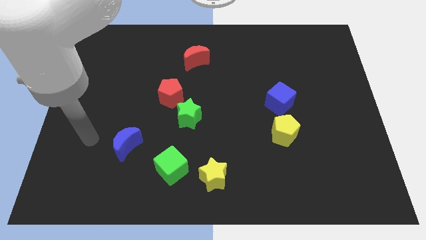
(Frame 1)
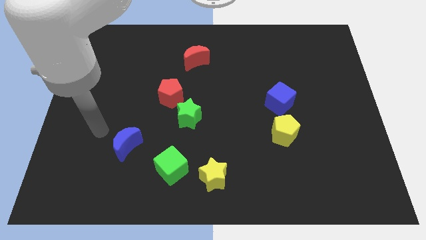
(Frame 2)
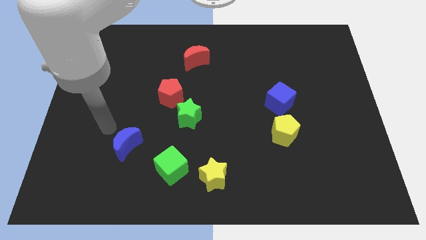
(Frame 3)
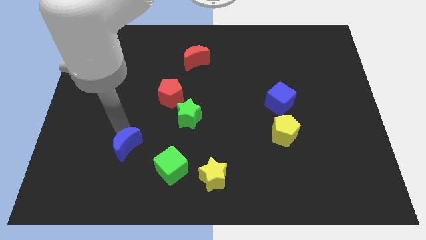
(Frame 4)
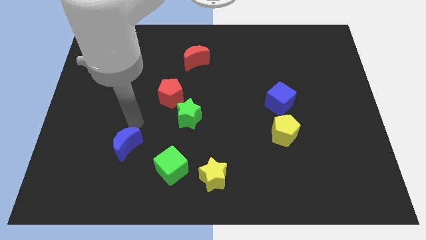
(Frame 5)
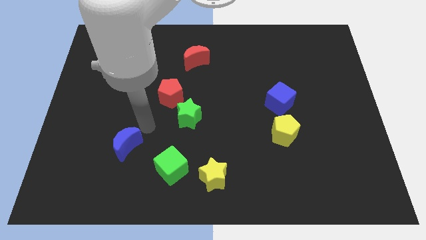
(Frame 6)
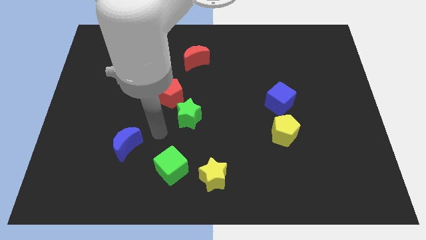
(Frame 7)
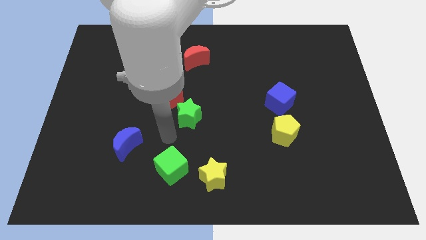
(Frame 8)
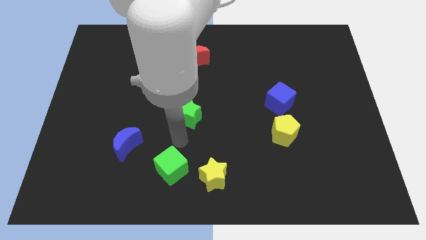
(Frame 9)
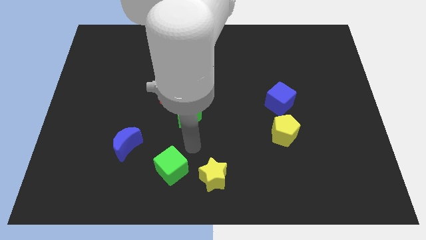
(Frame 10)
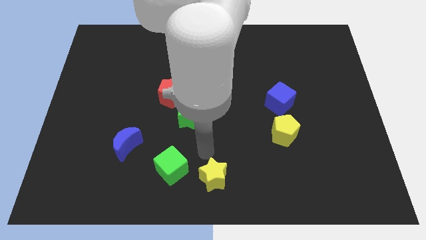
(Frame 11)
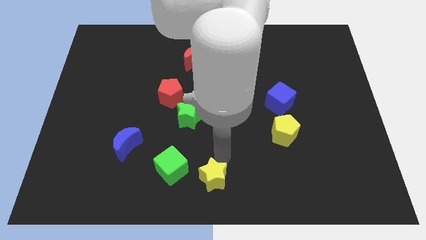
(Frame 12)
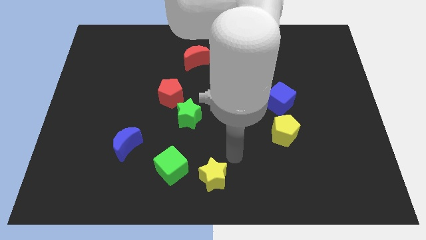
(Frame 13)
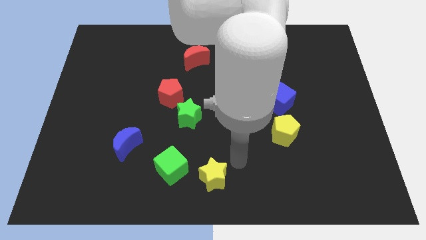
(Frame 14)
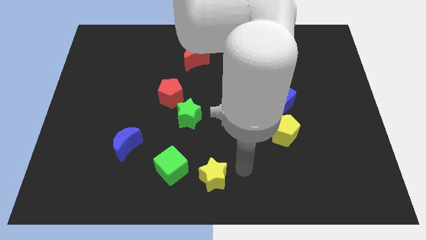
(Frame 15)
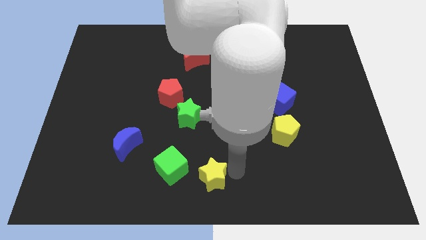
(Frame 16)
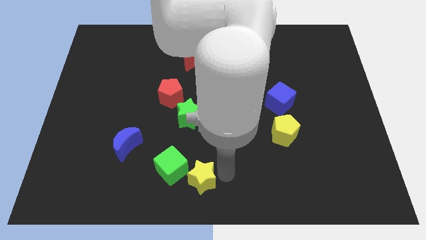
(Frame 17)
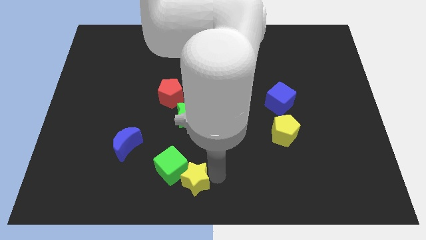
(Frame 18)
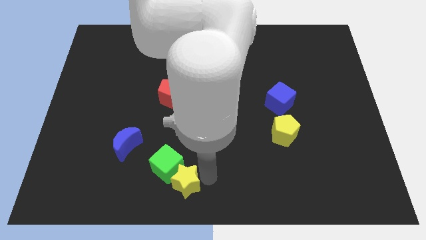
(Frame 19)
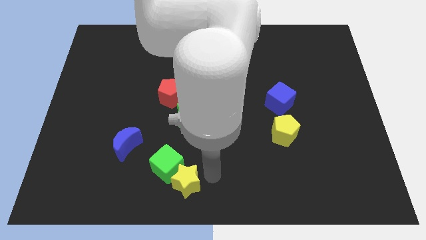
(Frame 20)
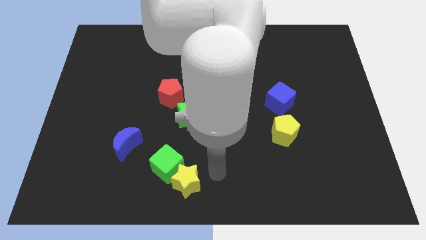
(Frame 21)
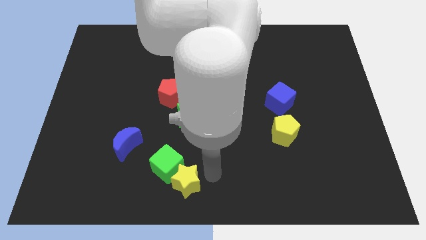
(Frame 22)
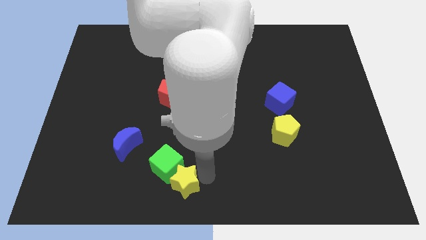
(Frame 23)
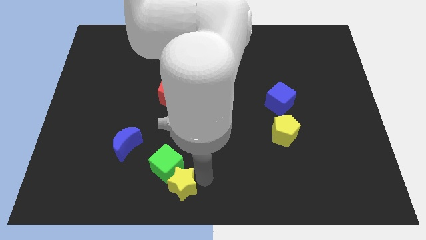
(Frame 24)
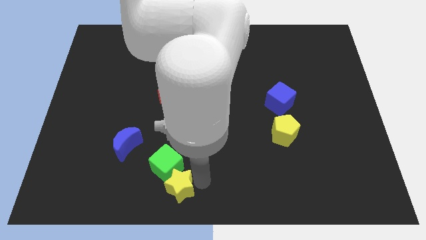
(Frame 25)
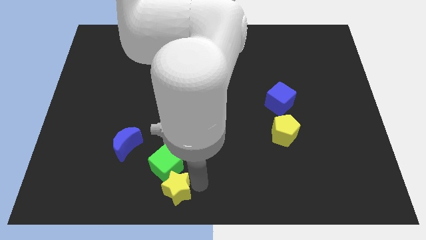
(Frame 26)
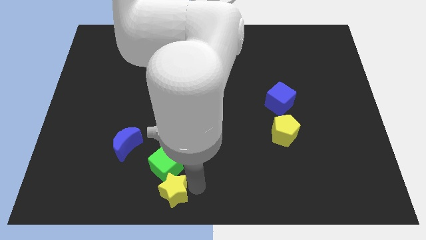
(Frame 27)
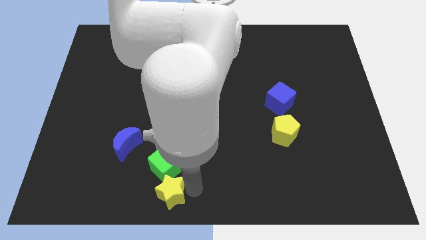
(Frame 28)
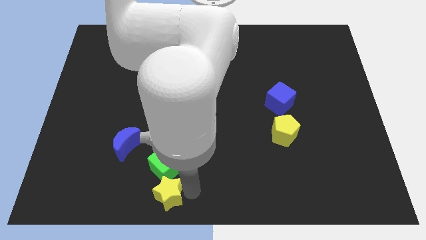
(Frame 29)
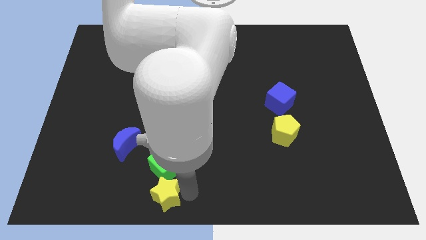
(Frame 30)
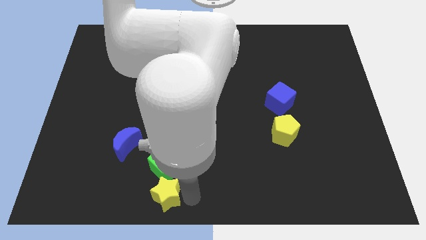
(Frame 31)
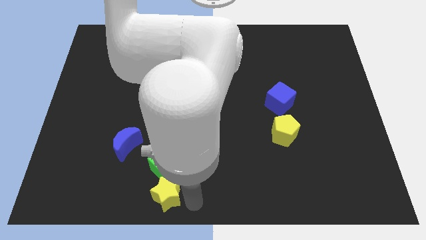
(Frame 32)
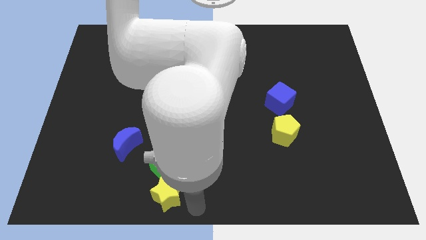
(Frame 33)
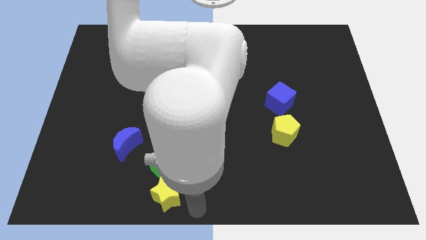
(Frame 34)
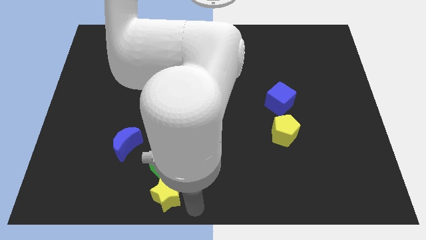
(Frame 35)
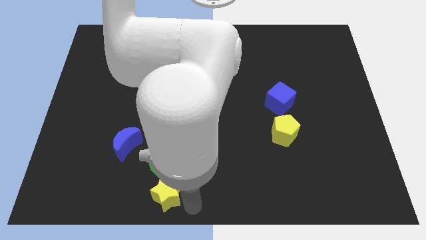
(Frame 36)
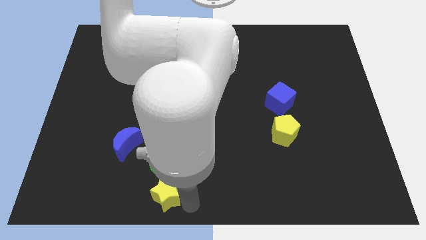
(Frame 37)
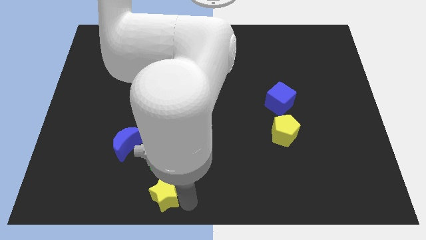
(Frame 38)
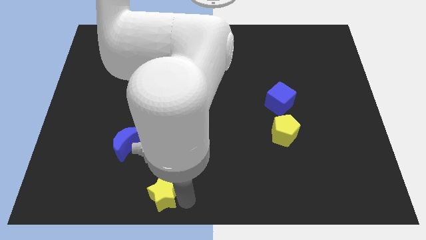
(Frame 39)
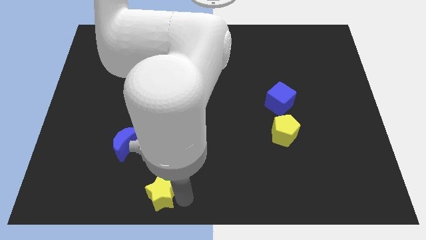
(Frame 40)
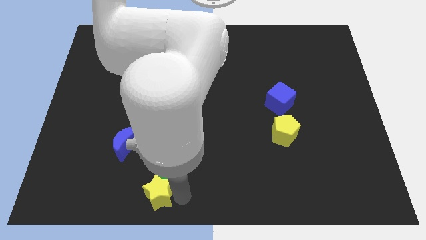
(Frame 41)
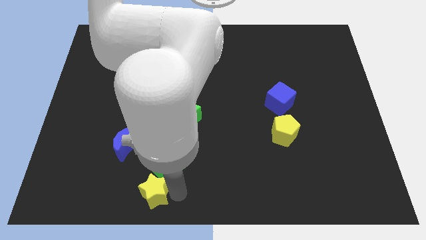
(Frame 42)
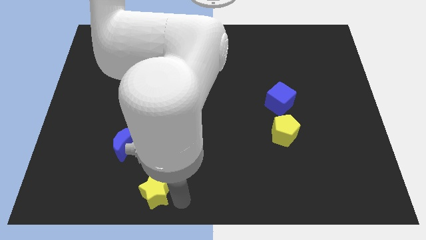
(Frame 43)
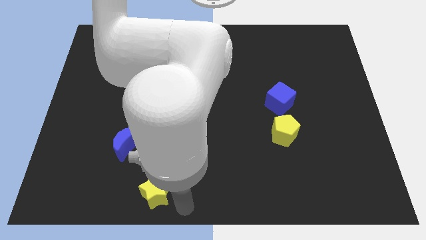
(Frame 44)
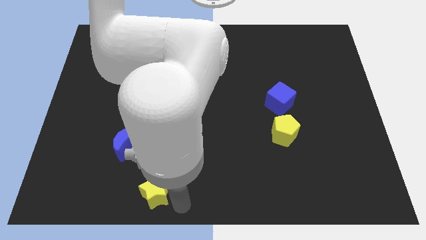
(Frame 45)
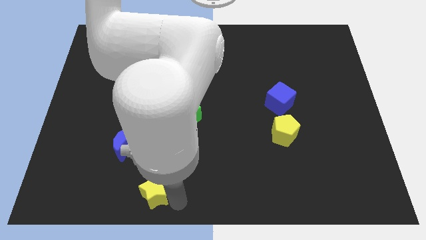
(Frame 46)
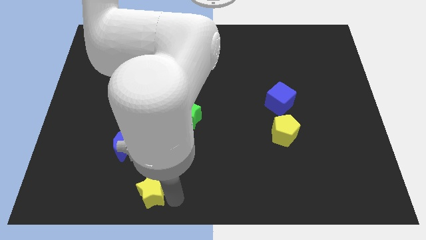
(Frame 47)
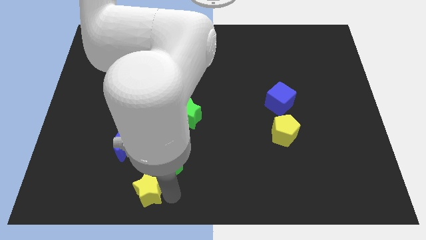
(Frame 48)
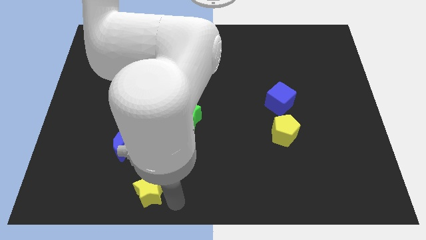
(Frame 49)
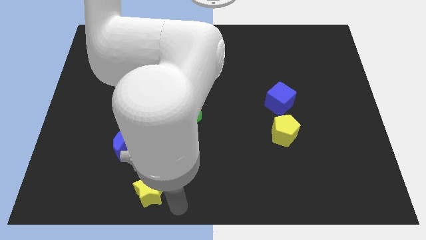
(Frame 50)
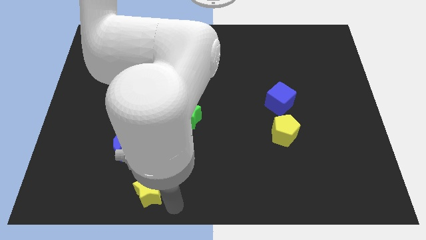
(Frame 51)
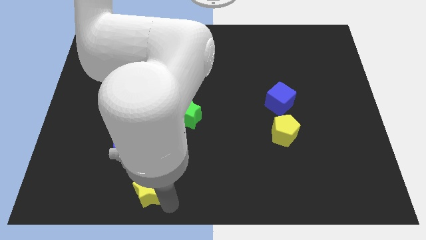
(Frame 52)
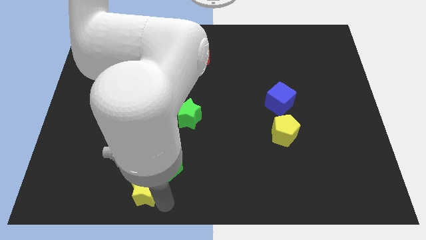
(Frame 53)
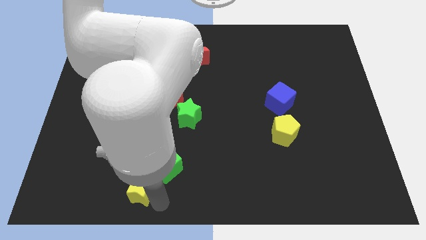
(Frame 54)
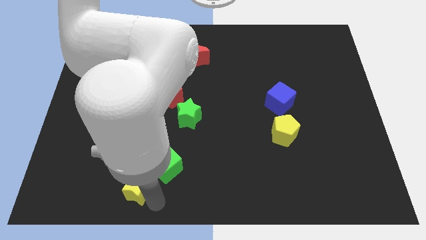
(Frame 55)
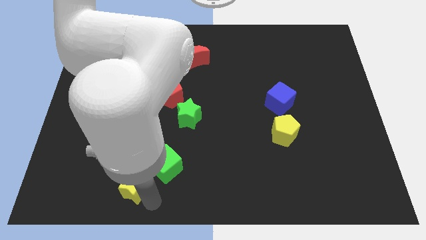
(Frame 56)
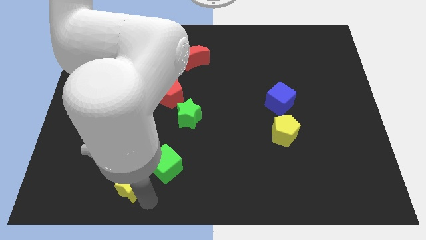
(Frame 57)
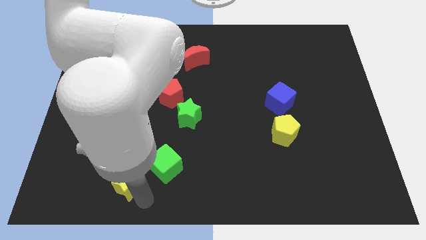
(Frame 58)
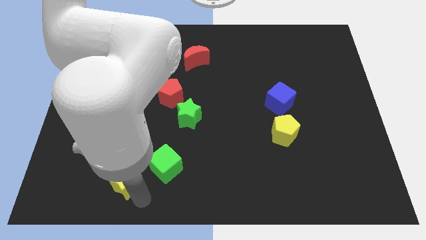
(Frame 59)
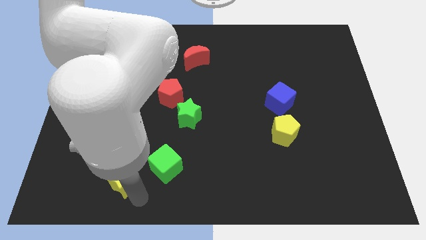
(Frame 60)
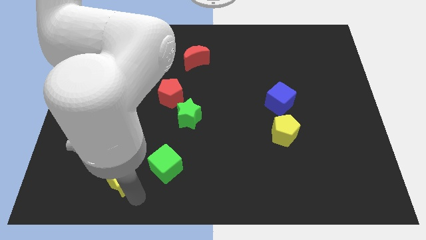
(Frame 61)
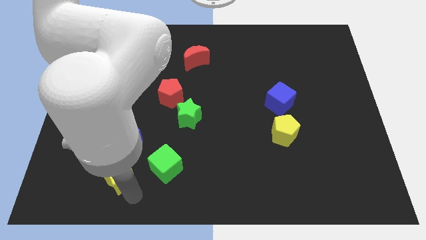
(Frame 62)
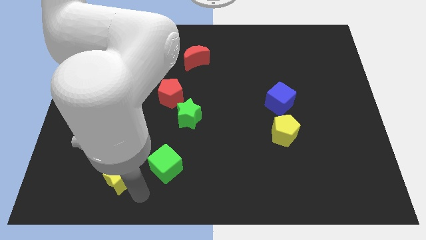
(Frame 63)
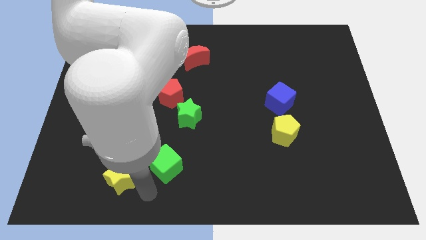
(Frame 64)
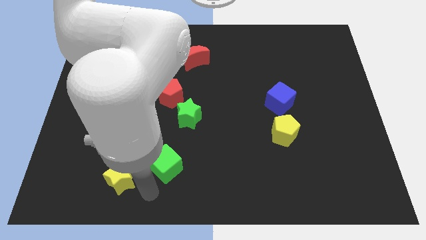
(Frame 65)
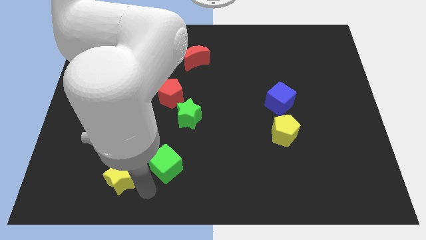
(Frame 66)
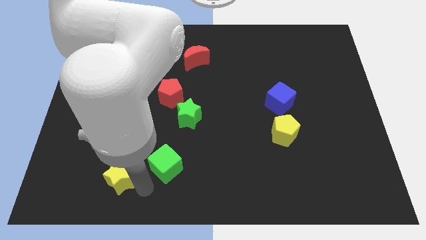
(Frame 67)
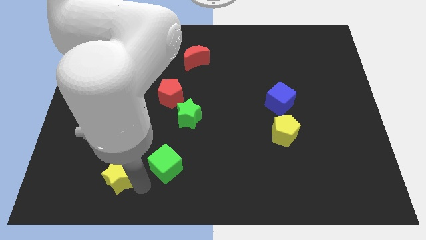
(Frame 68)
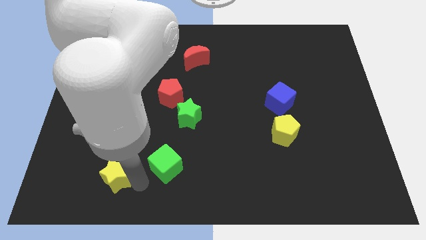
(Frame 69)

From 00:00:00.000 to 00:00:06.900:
put the yellow star diagonally down and to the left of the blue moon
